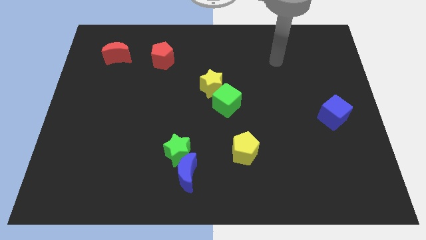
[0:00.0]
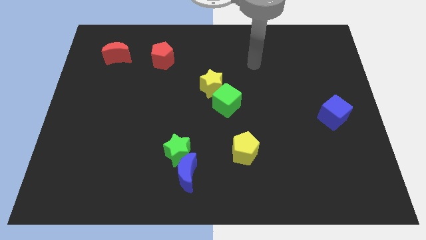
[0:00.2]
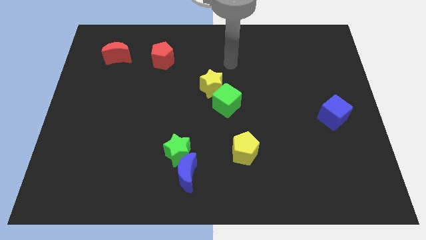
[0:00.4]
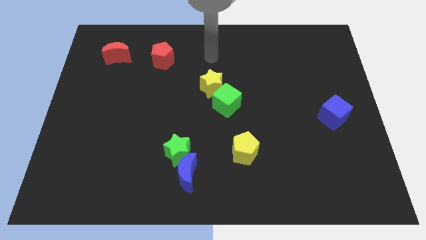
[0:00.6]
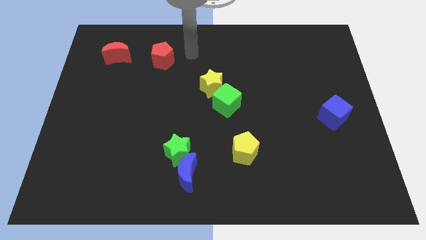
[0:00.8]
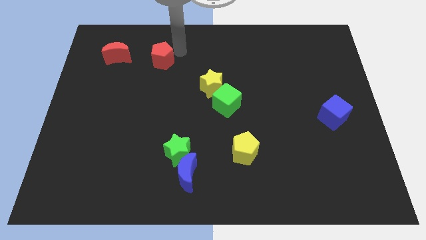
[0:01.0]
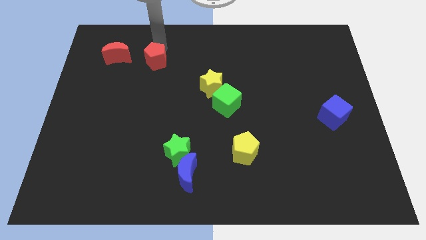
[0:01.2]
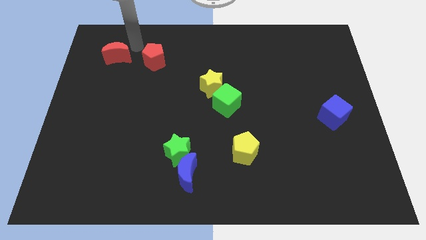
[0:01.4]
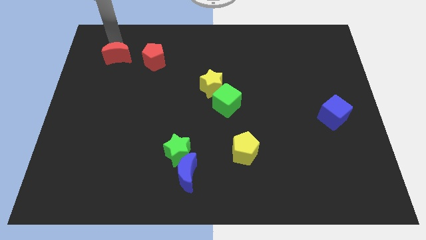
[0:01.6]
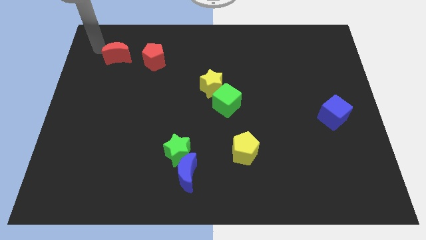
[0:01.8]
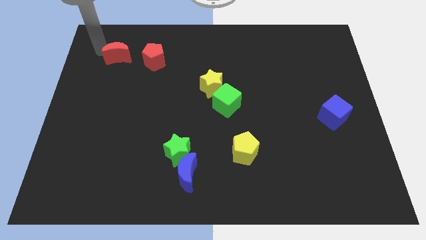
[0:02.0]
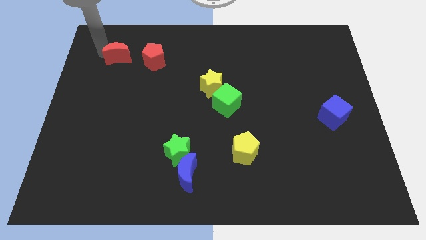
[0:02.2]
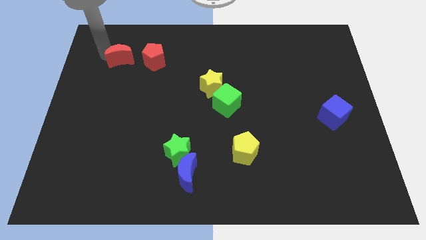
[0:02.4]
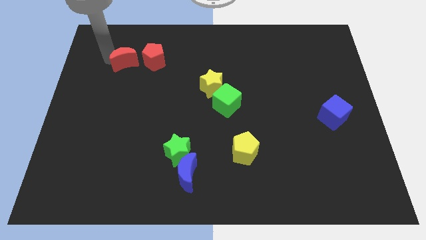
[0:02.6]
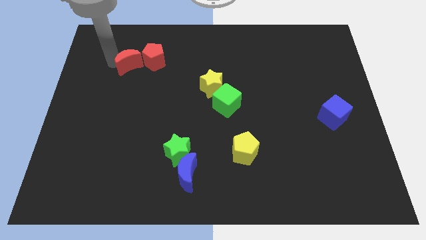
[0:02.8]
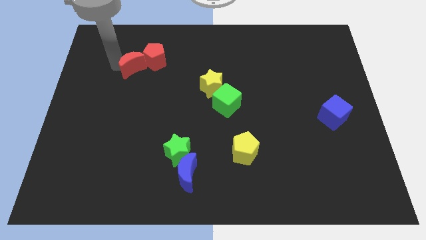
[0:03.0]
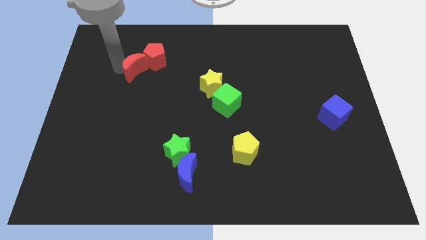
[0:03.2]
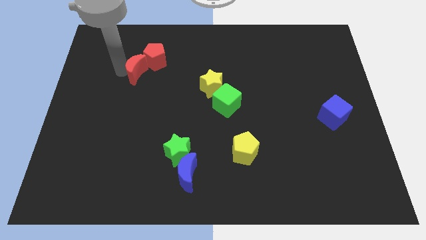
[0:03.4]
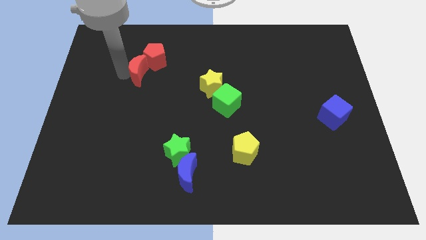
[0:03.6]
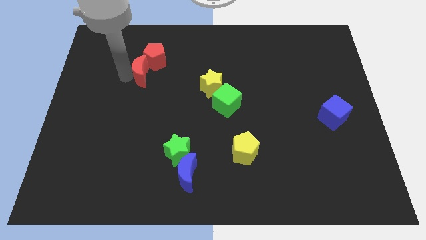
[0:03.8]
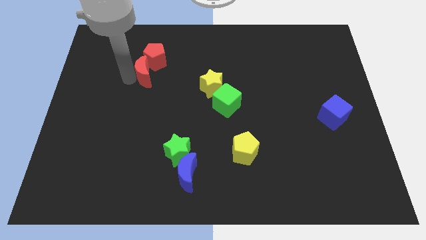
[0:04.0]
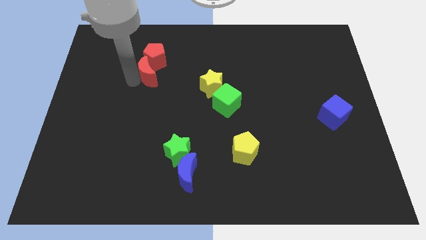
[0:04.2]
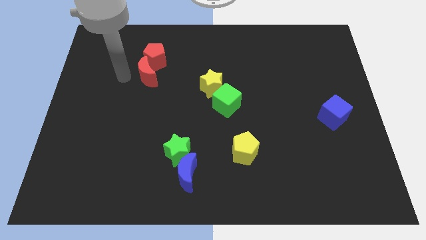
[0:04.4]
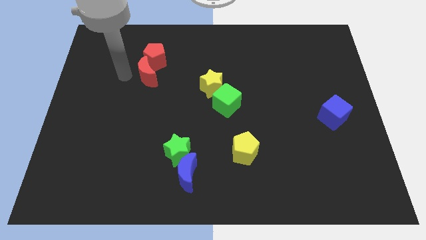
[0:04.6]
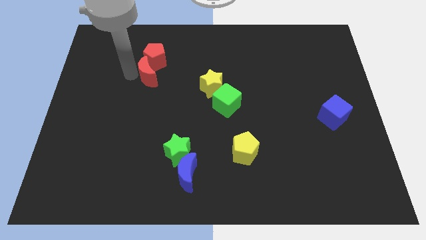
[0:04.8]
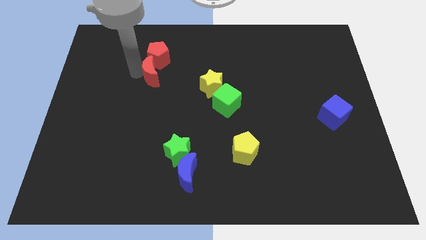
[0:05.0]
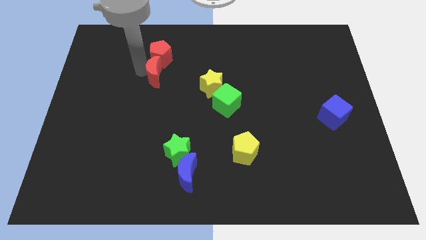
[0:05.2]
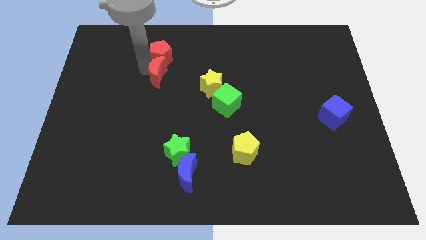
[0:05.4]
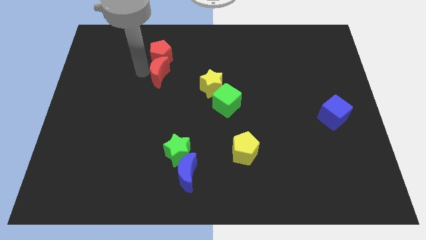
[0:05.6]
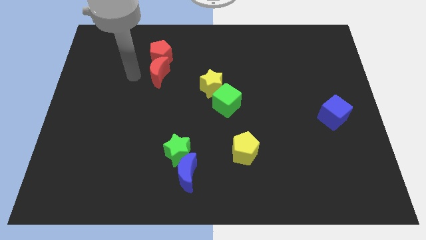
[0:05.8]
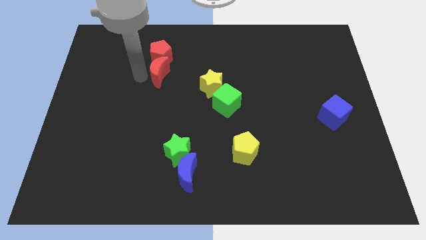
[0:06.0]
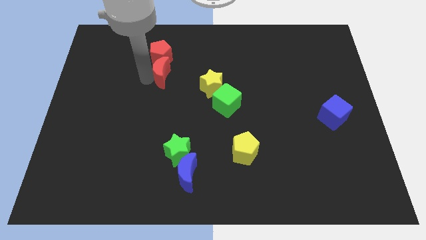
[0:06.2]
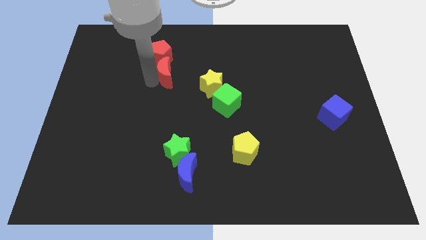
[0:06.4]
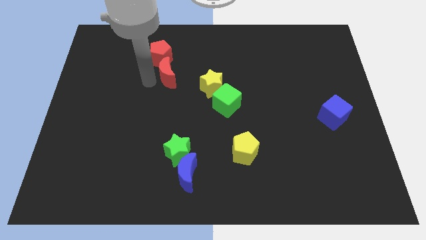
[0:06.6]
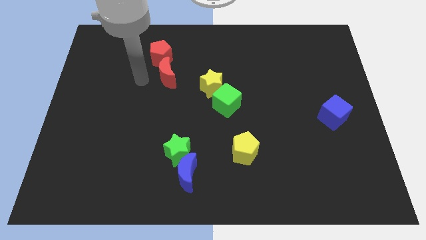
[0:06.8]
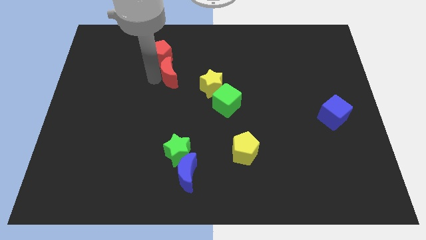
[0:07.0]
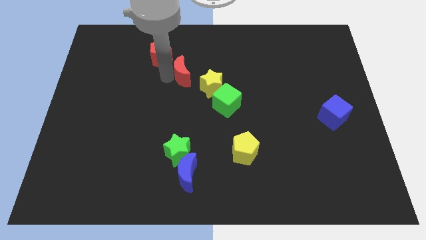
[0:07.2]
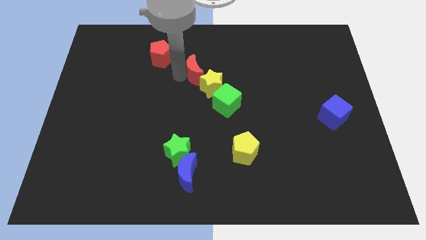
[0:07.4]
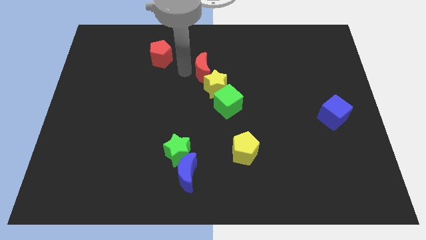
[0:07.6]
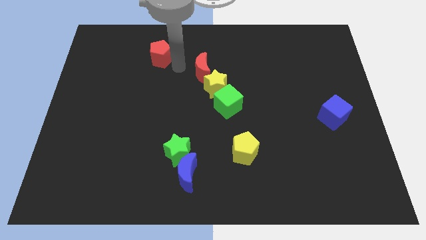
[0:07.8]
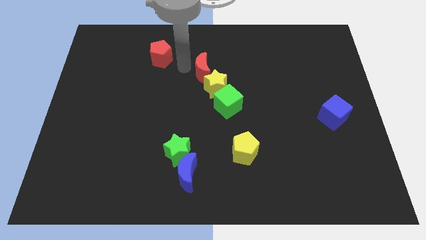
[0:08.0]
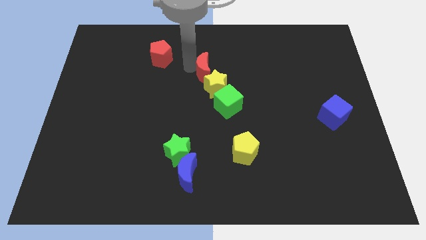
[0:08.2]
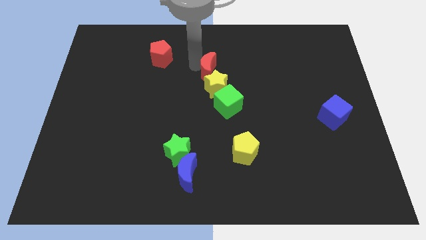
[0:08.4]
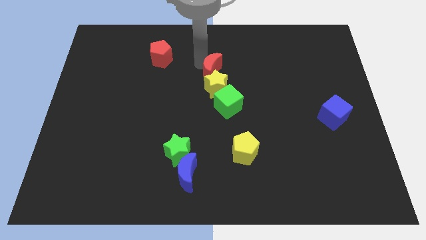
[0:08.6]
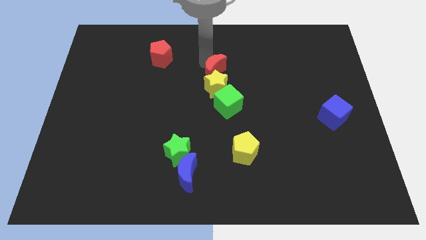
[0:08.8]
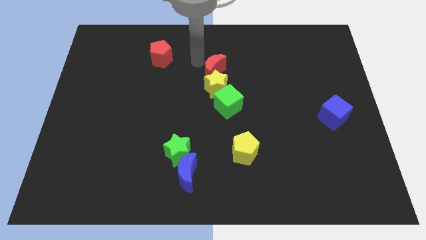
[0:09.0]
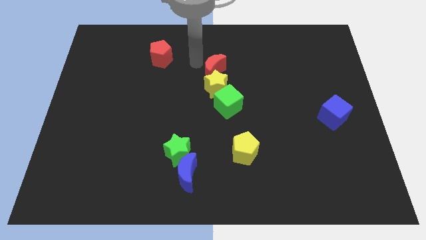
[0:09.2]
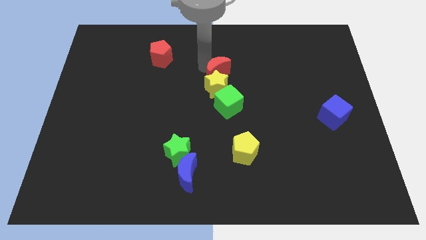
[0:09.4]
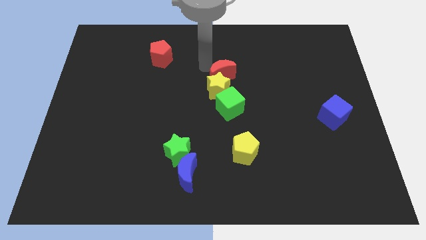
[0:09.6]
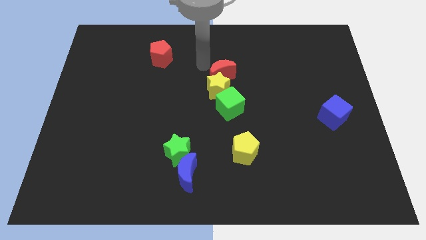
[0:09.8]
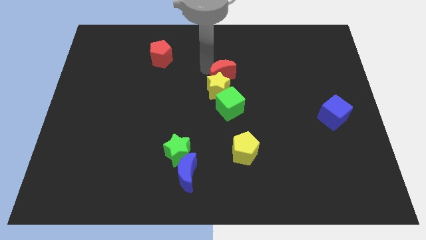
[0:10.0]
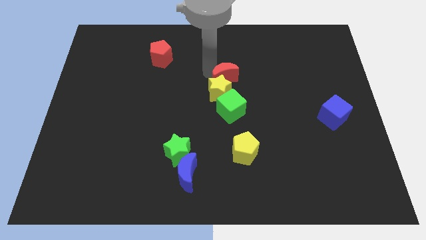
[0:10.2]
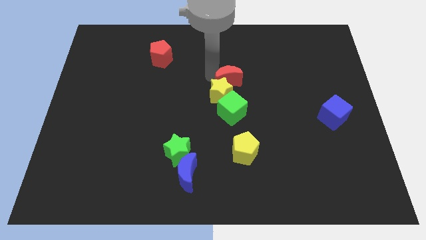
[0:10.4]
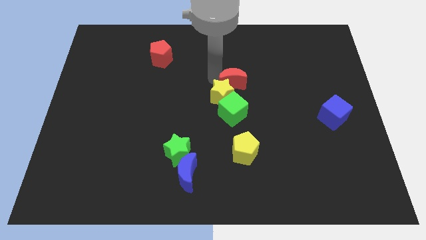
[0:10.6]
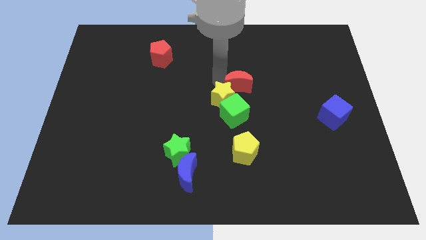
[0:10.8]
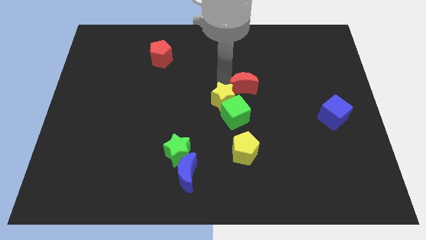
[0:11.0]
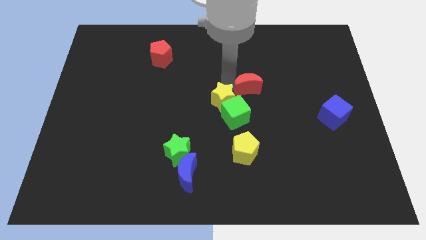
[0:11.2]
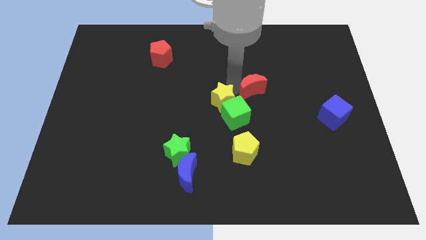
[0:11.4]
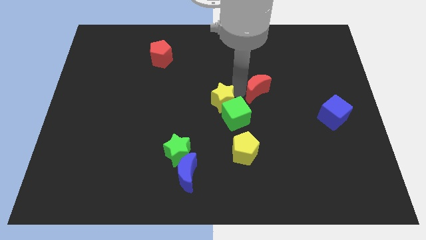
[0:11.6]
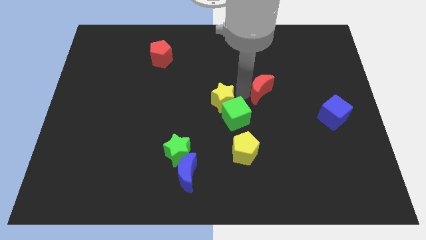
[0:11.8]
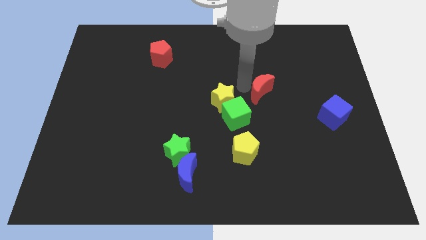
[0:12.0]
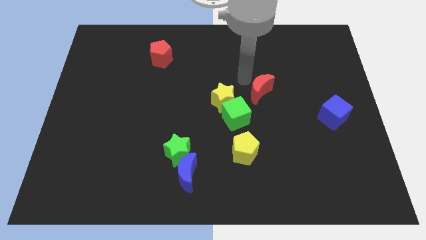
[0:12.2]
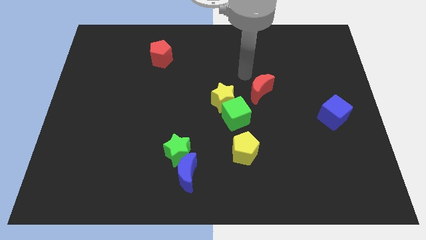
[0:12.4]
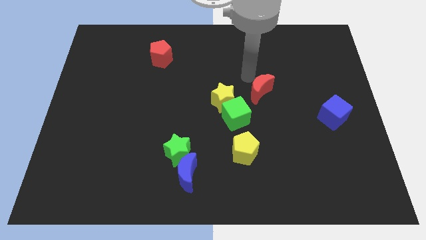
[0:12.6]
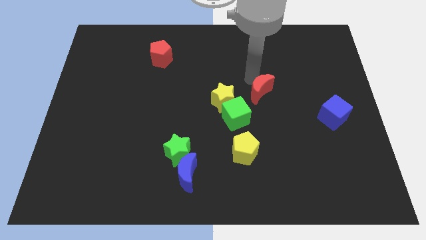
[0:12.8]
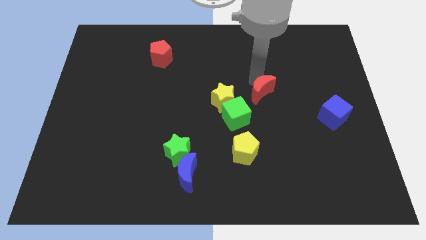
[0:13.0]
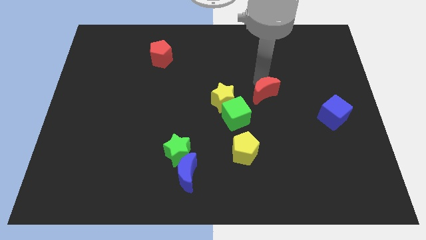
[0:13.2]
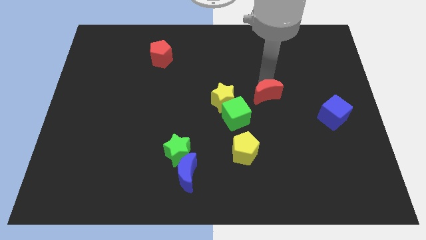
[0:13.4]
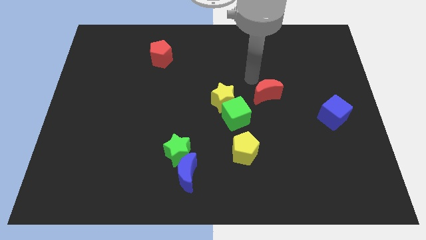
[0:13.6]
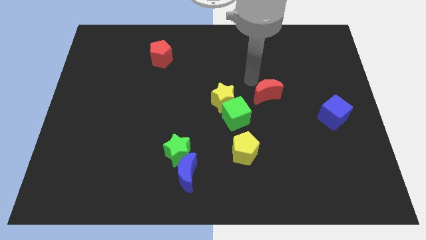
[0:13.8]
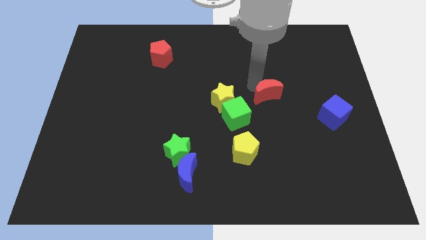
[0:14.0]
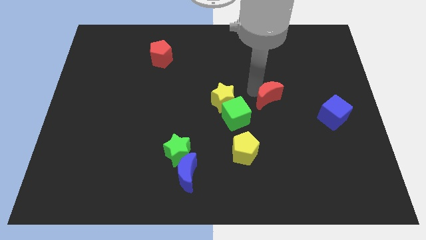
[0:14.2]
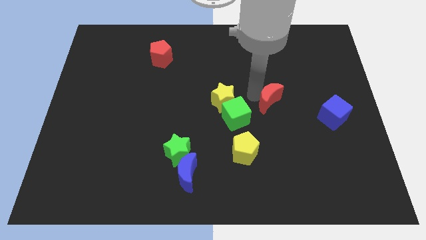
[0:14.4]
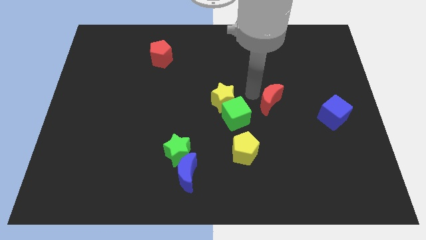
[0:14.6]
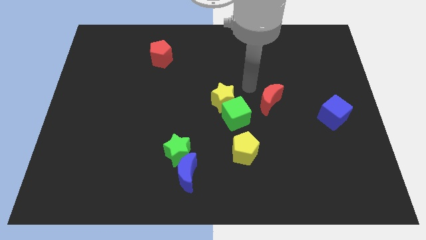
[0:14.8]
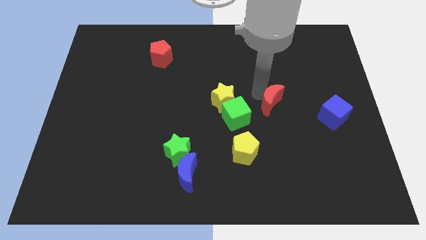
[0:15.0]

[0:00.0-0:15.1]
move the red moon left of the blue cube
